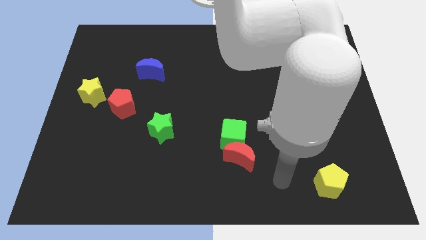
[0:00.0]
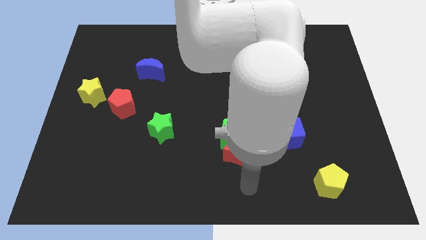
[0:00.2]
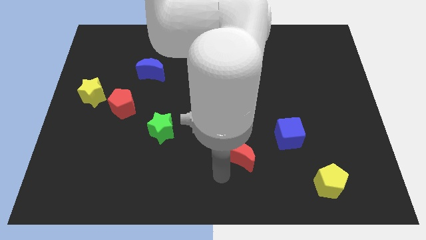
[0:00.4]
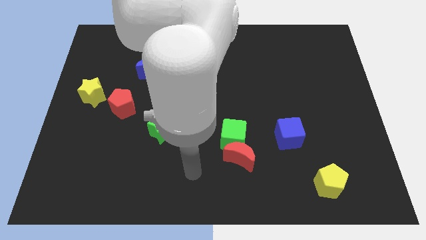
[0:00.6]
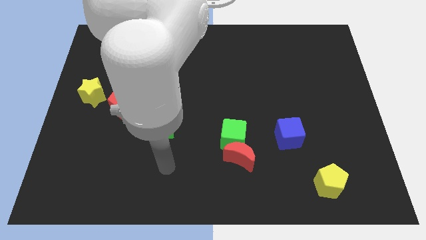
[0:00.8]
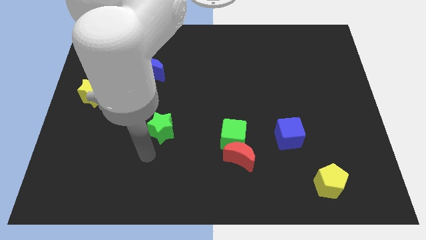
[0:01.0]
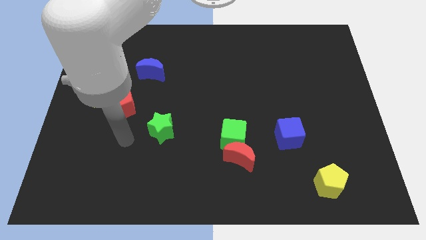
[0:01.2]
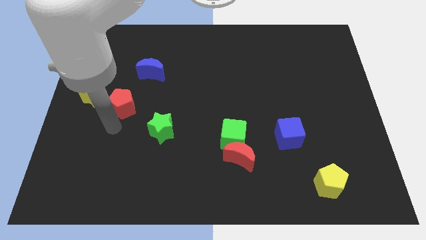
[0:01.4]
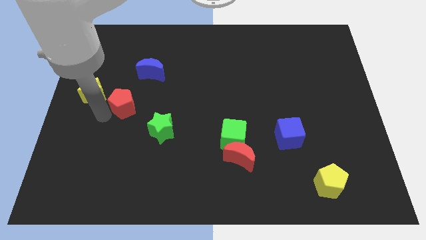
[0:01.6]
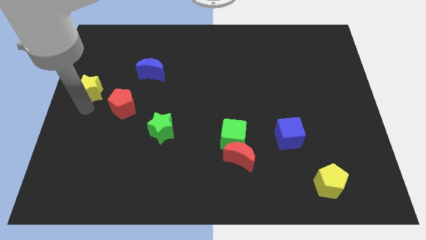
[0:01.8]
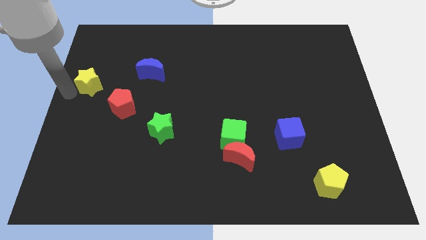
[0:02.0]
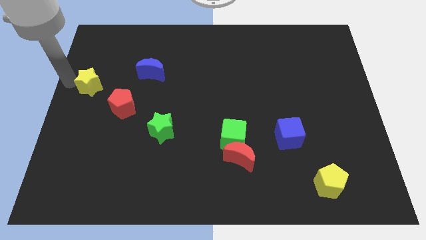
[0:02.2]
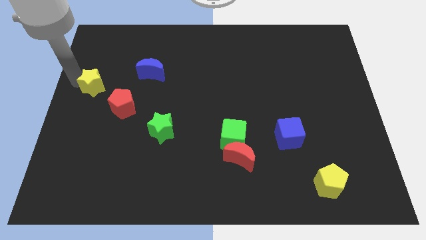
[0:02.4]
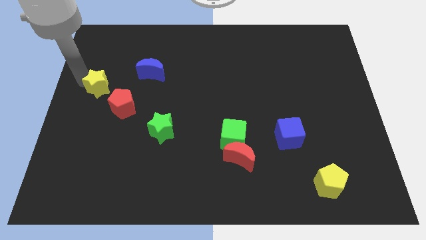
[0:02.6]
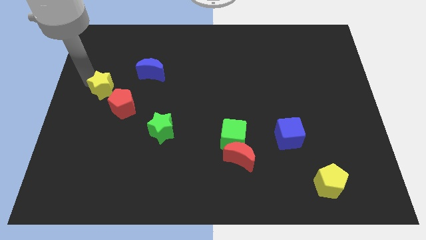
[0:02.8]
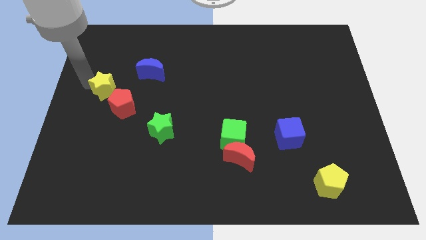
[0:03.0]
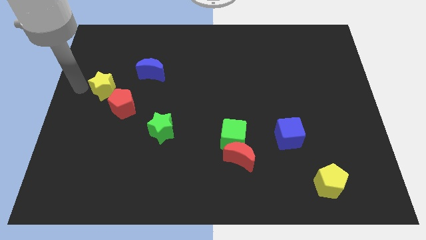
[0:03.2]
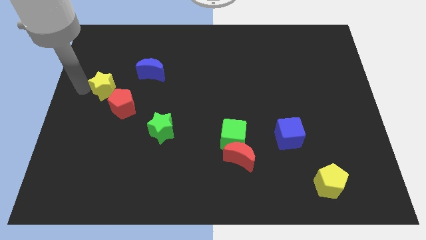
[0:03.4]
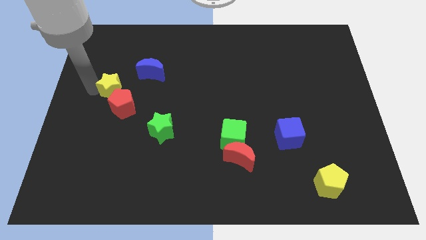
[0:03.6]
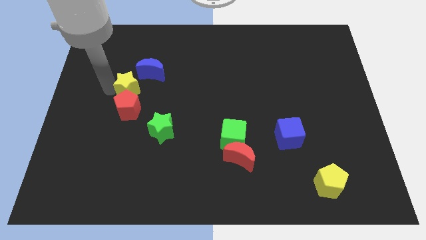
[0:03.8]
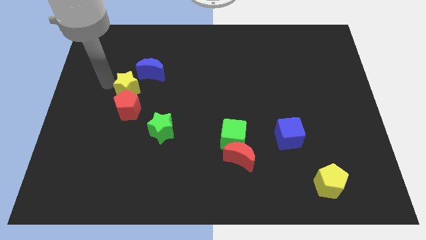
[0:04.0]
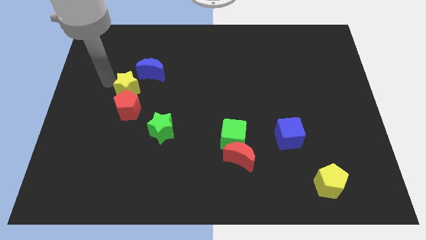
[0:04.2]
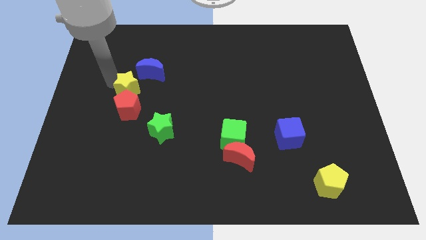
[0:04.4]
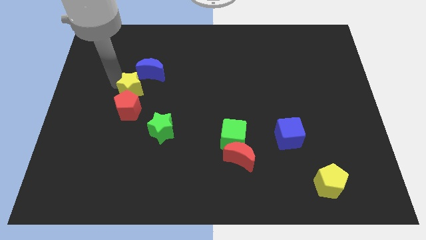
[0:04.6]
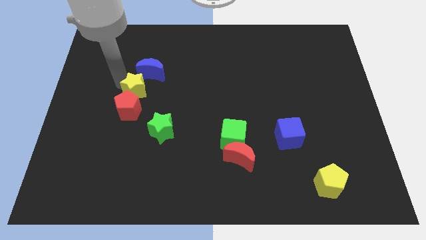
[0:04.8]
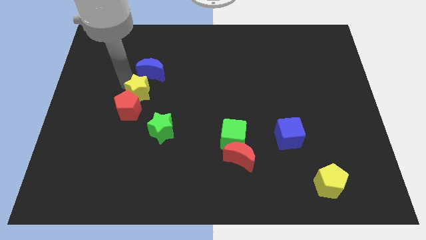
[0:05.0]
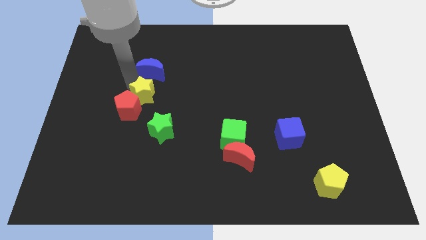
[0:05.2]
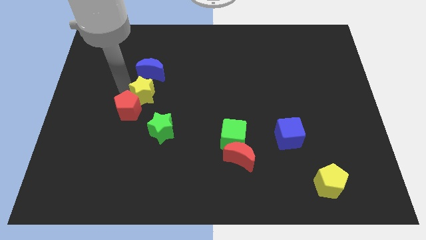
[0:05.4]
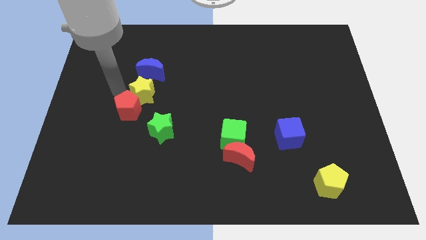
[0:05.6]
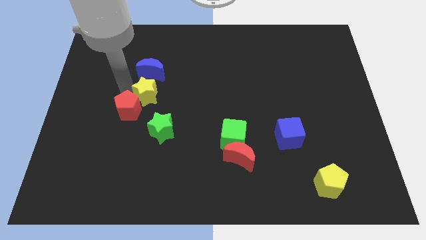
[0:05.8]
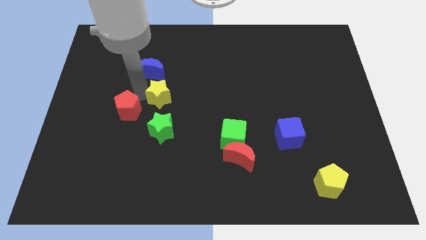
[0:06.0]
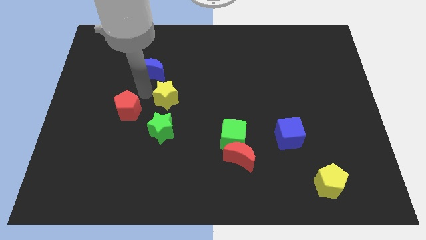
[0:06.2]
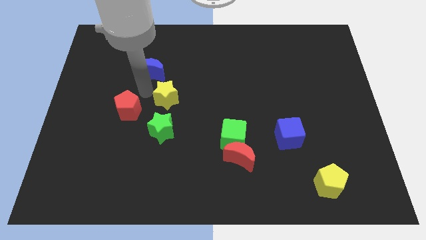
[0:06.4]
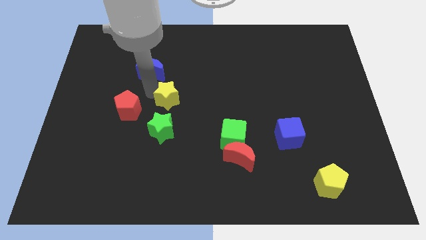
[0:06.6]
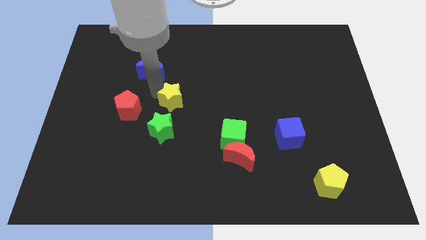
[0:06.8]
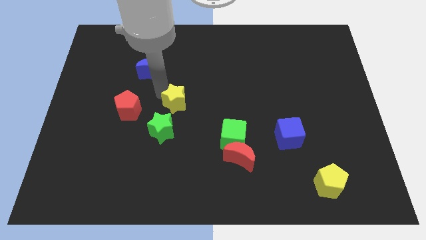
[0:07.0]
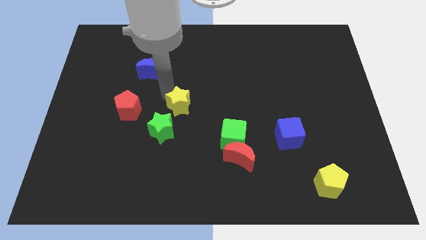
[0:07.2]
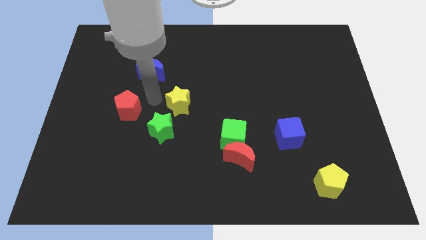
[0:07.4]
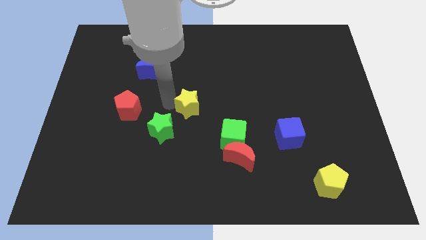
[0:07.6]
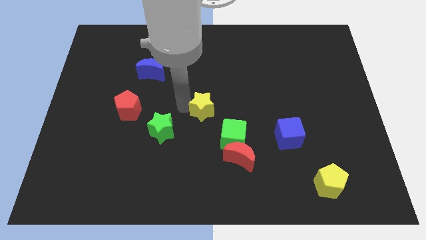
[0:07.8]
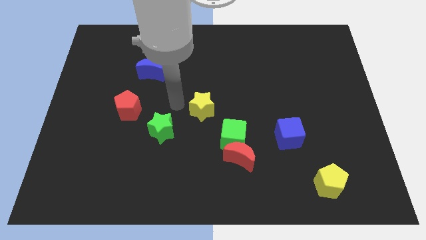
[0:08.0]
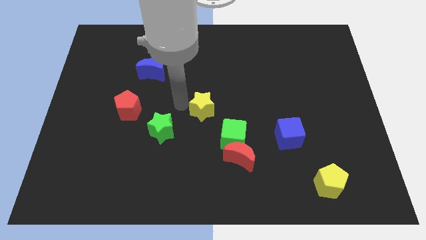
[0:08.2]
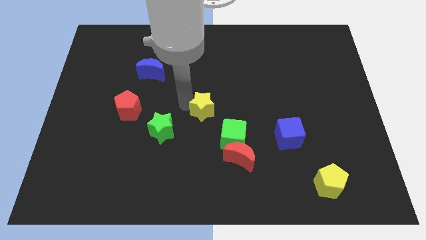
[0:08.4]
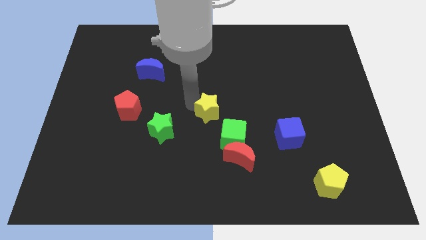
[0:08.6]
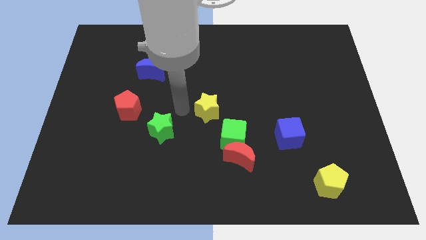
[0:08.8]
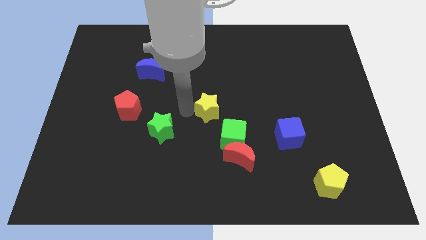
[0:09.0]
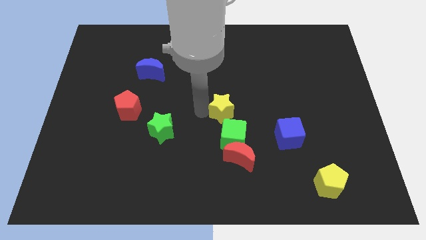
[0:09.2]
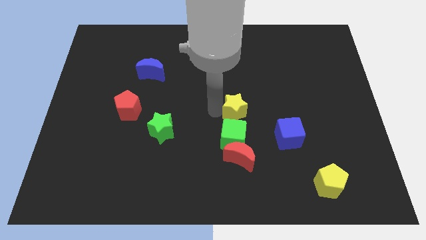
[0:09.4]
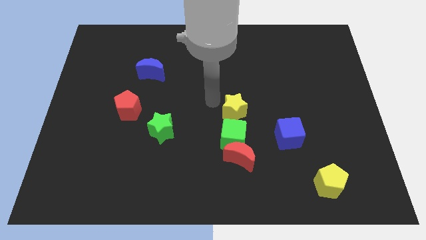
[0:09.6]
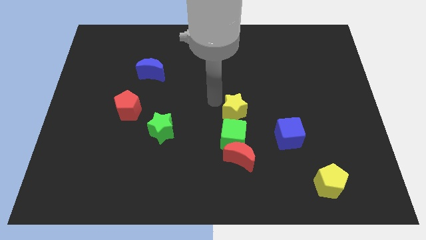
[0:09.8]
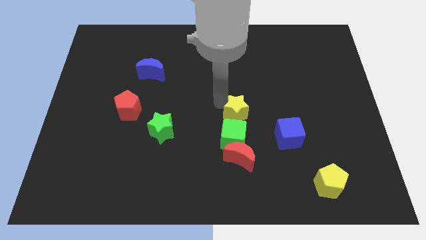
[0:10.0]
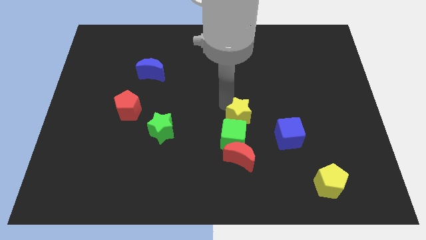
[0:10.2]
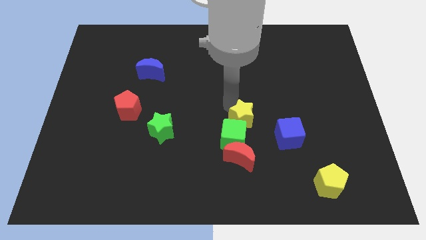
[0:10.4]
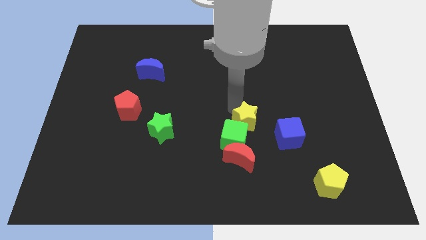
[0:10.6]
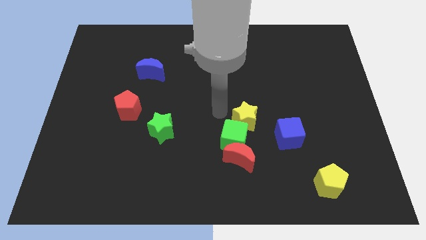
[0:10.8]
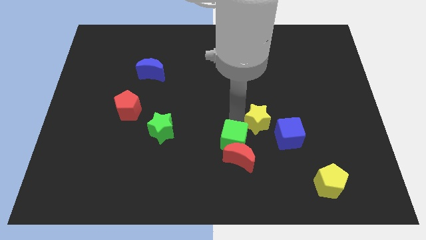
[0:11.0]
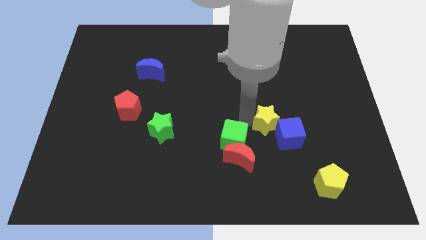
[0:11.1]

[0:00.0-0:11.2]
put the yellow star close to the blue cube

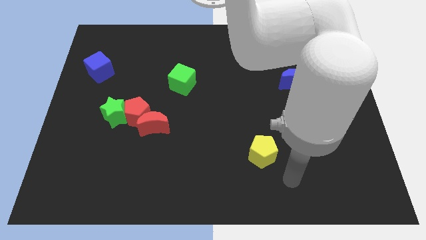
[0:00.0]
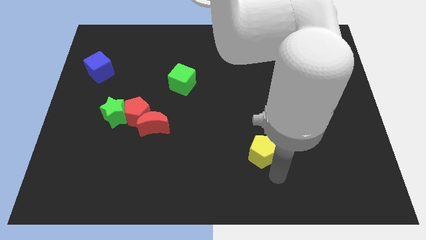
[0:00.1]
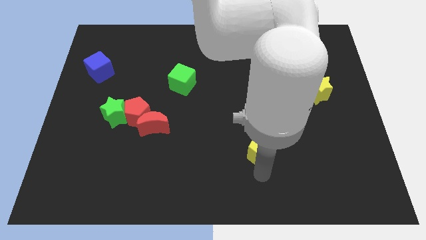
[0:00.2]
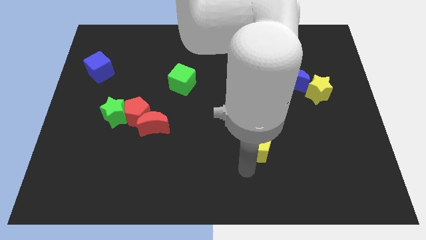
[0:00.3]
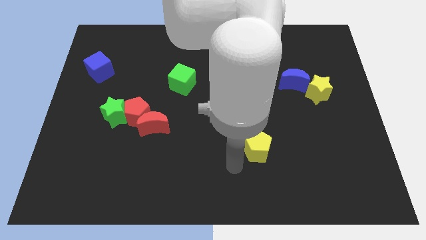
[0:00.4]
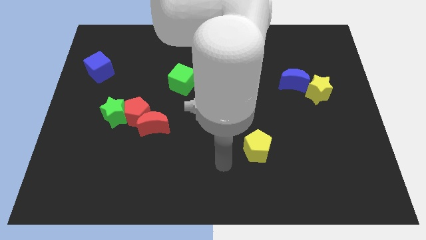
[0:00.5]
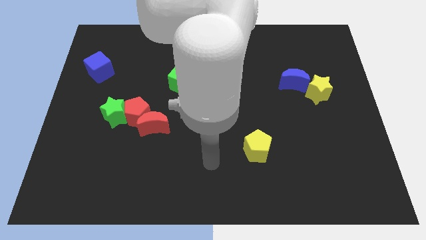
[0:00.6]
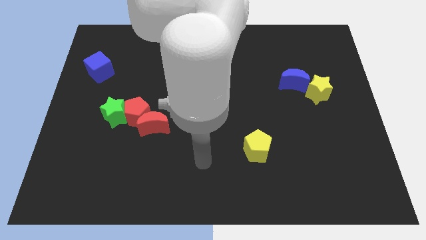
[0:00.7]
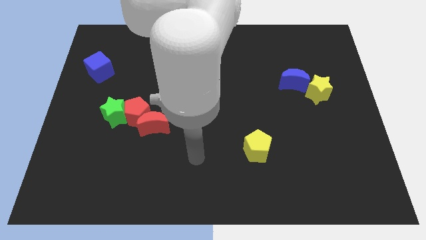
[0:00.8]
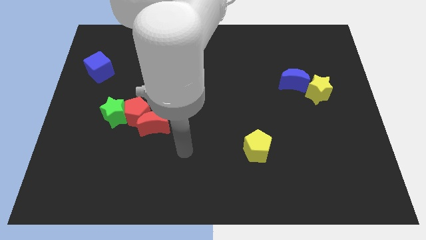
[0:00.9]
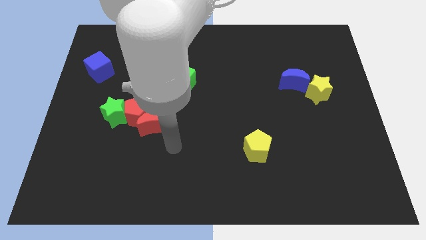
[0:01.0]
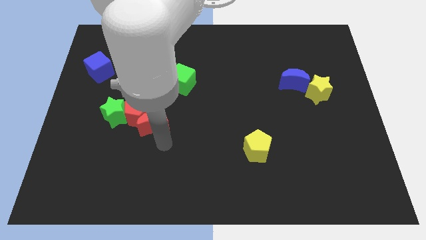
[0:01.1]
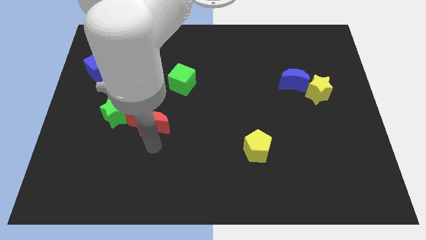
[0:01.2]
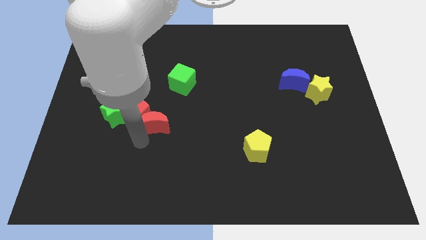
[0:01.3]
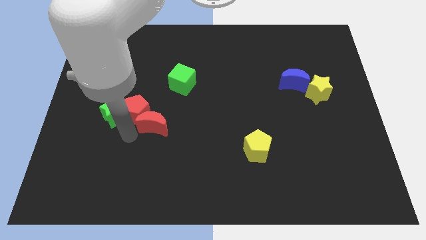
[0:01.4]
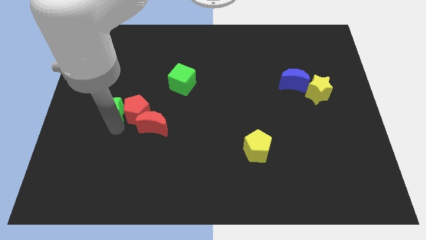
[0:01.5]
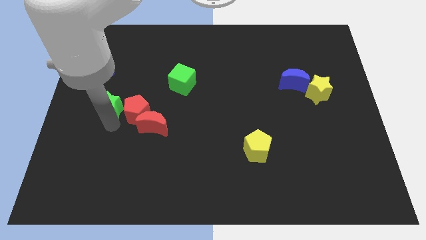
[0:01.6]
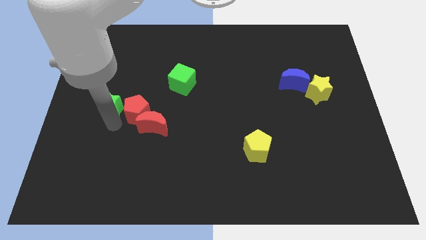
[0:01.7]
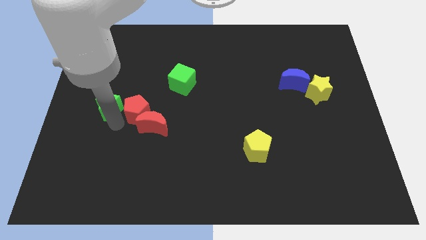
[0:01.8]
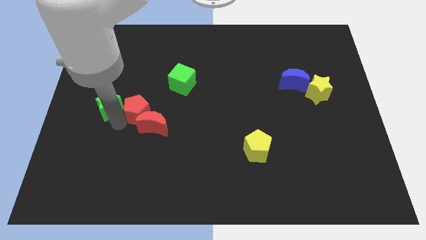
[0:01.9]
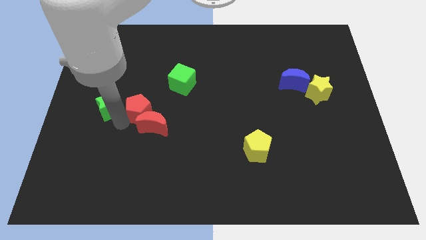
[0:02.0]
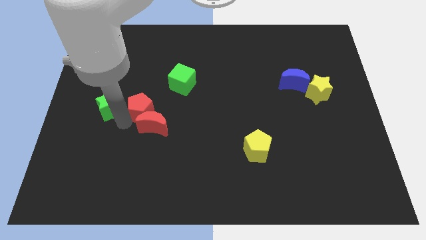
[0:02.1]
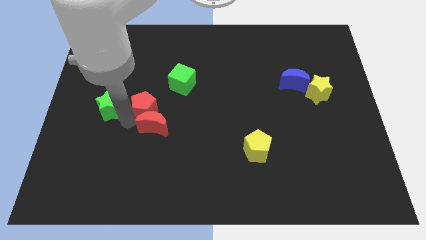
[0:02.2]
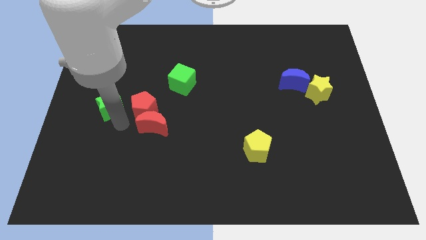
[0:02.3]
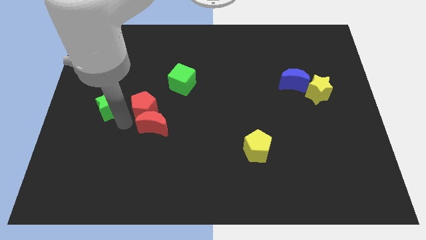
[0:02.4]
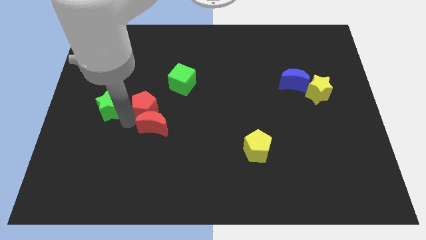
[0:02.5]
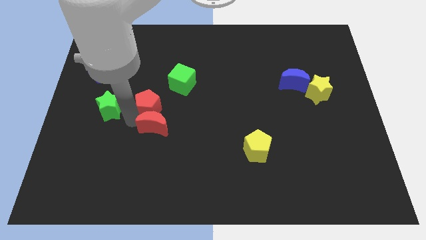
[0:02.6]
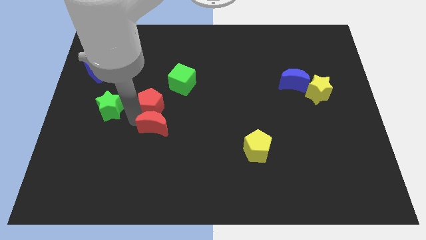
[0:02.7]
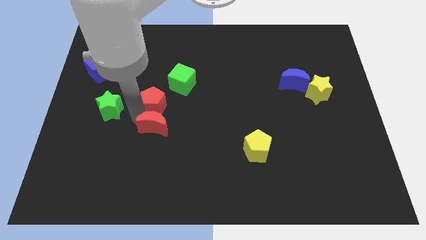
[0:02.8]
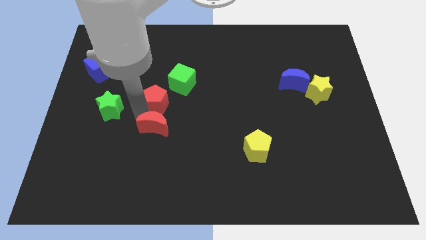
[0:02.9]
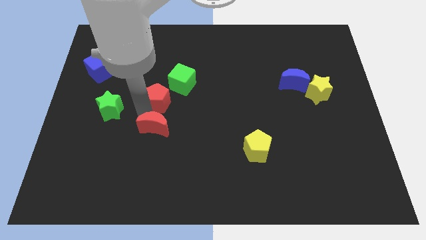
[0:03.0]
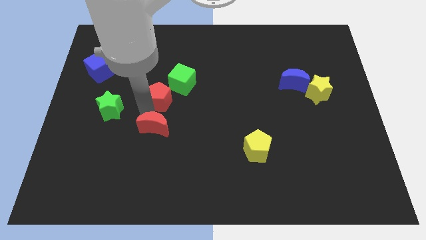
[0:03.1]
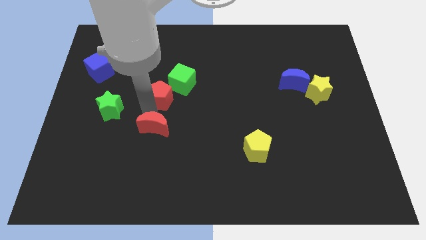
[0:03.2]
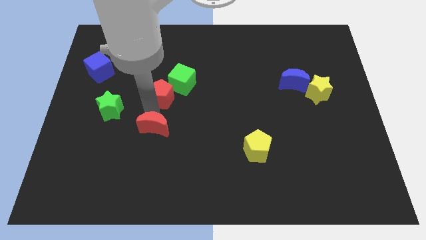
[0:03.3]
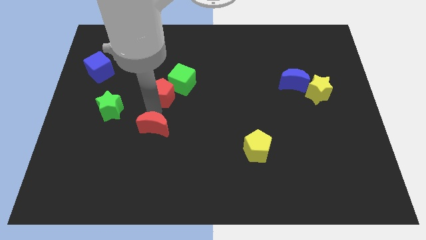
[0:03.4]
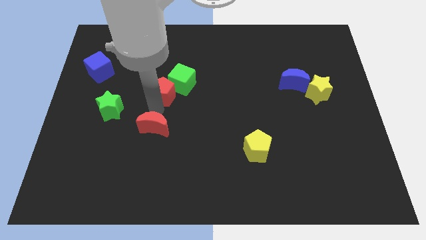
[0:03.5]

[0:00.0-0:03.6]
move the red pentagon towards the green cube
